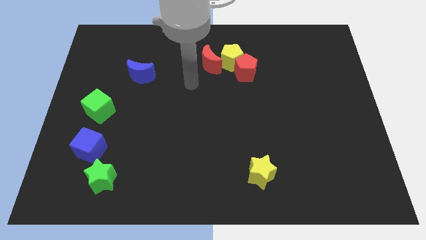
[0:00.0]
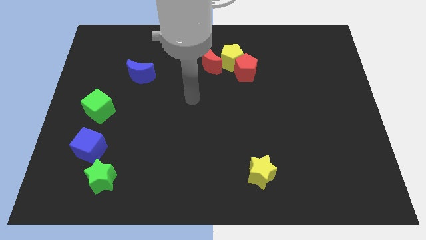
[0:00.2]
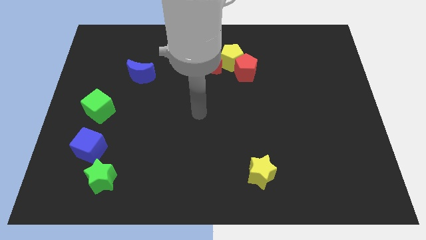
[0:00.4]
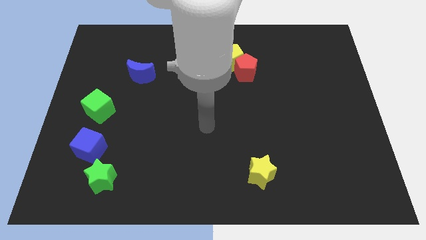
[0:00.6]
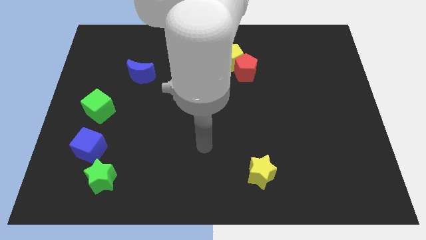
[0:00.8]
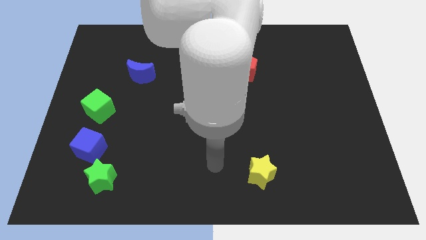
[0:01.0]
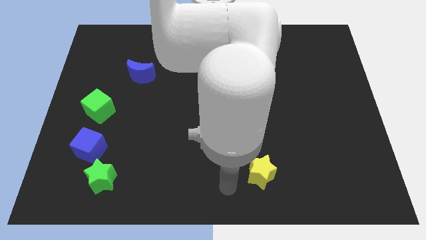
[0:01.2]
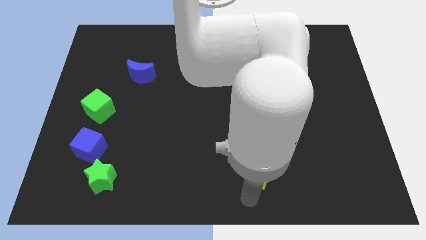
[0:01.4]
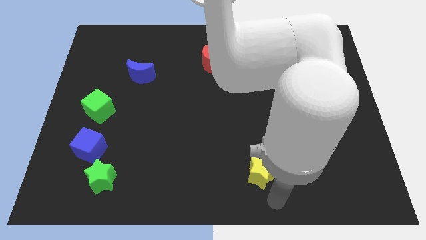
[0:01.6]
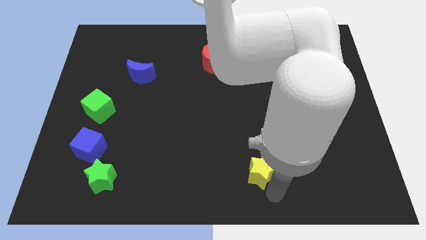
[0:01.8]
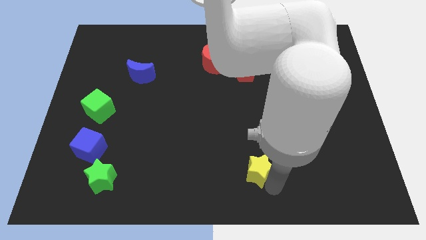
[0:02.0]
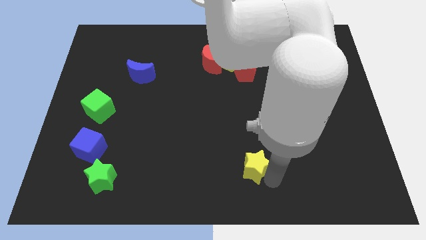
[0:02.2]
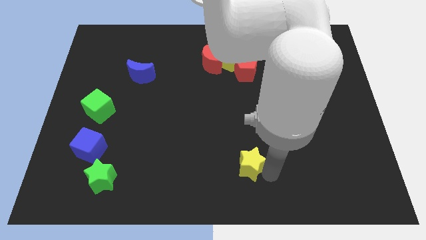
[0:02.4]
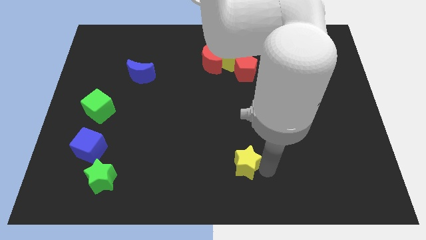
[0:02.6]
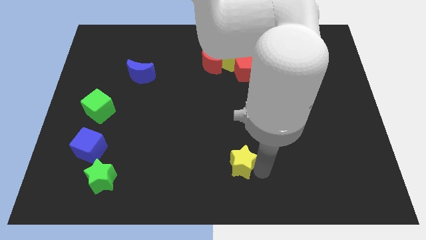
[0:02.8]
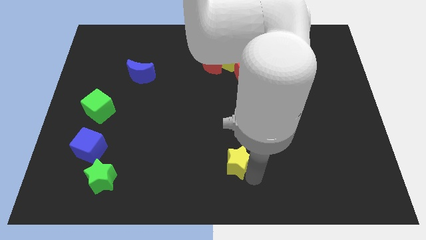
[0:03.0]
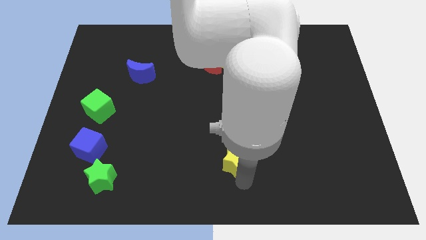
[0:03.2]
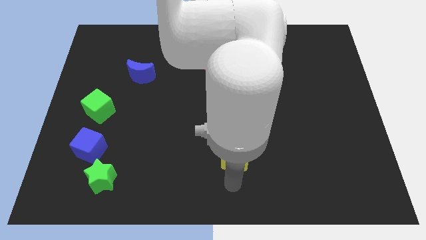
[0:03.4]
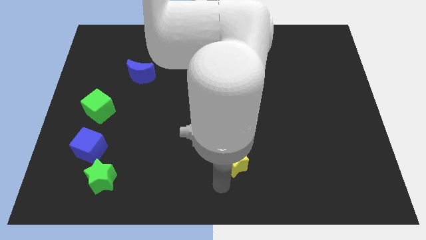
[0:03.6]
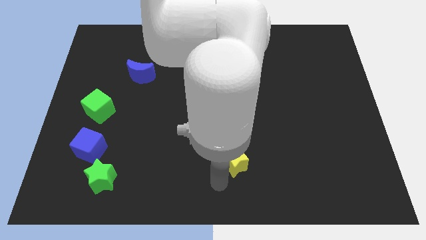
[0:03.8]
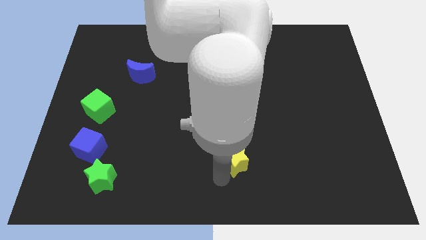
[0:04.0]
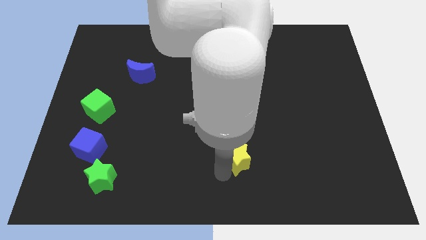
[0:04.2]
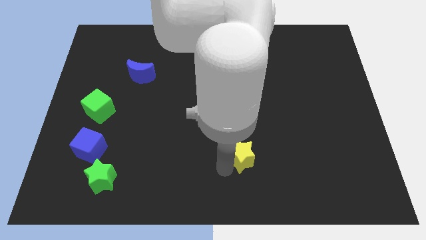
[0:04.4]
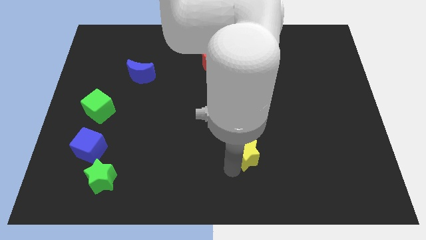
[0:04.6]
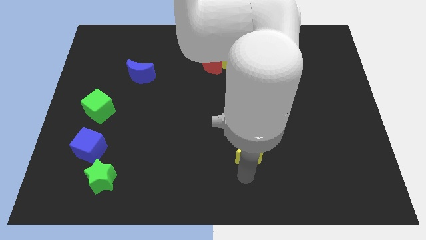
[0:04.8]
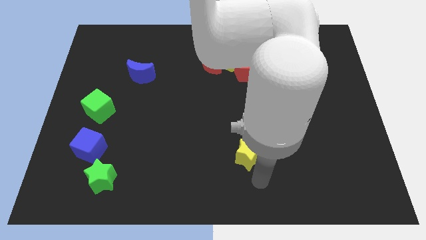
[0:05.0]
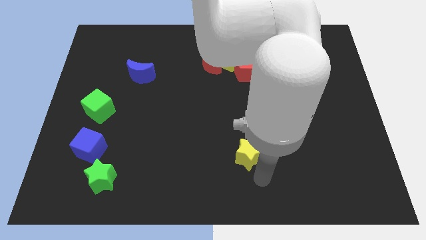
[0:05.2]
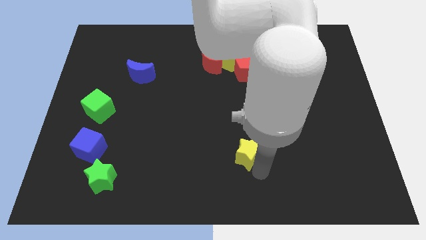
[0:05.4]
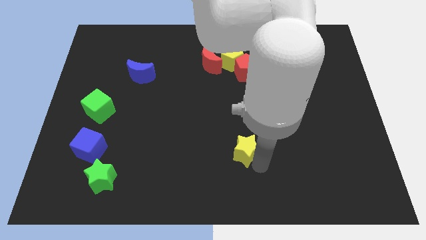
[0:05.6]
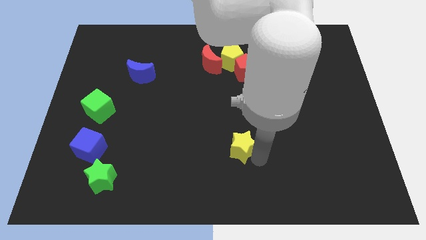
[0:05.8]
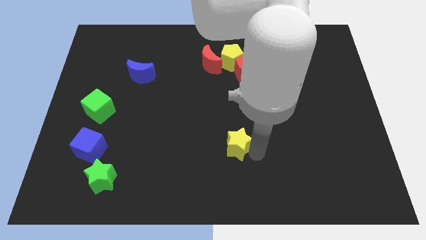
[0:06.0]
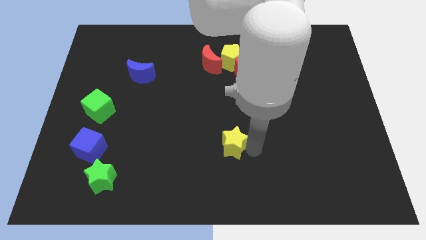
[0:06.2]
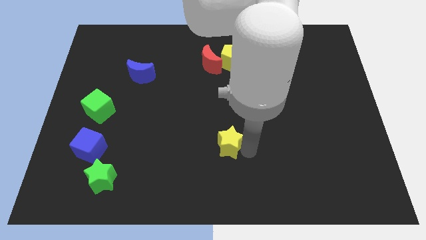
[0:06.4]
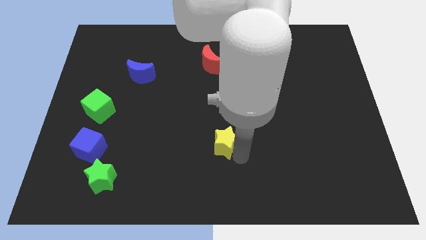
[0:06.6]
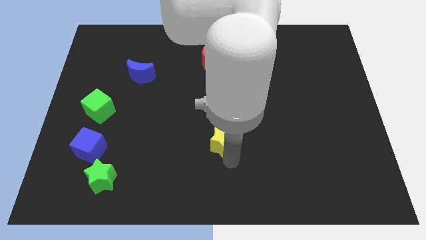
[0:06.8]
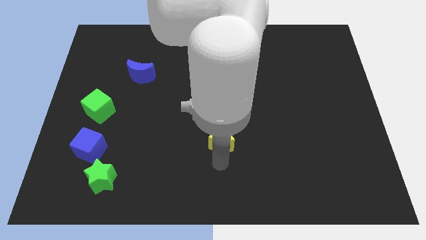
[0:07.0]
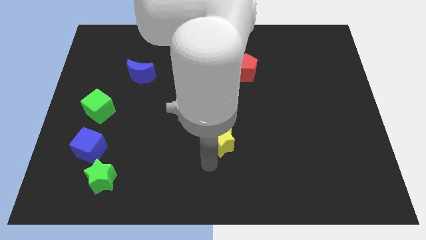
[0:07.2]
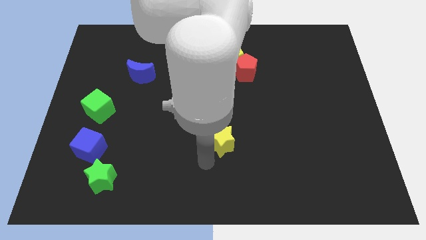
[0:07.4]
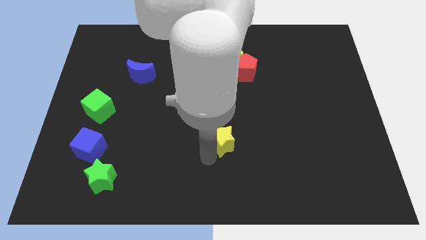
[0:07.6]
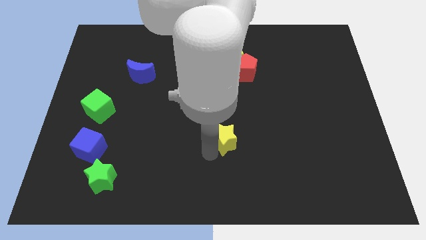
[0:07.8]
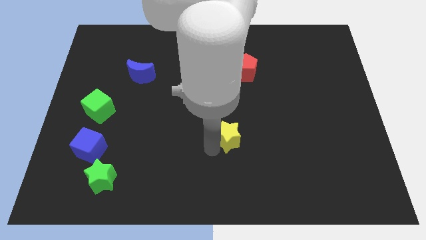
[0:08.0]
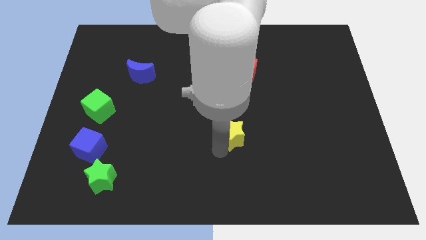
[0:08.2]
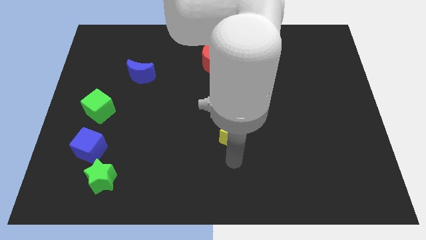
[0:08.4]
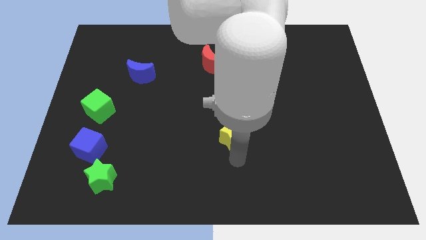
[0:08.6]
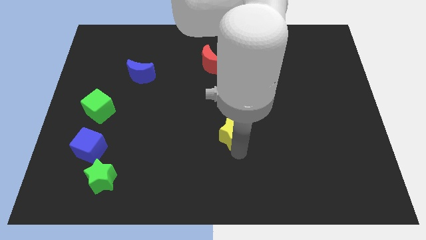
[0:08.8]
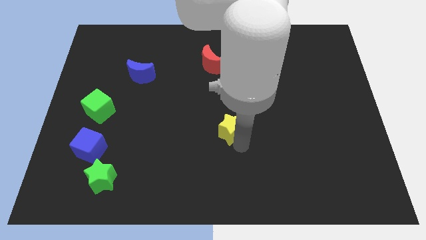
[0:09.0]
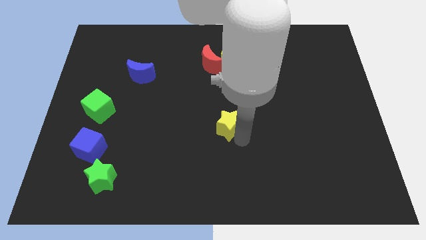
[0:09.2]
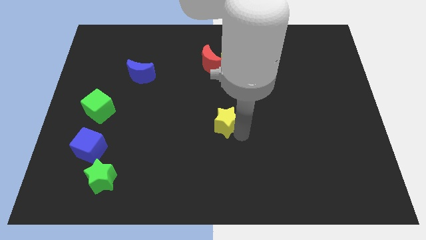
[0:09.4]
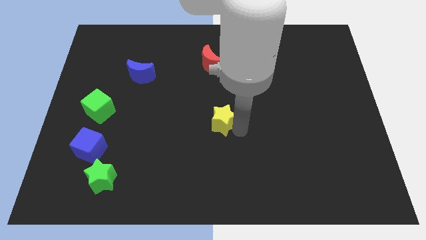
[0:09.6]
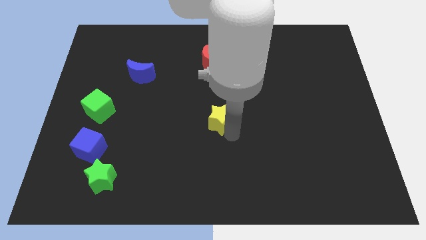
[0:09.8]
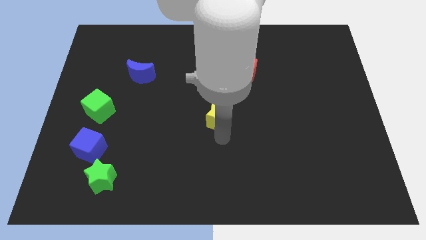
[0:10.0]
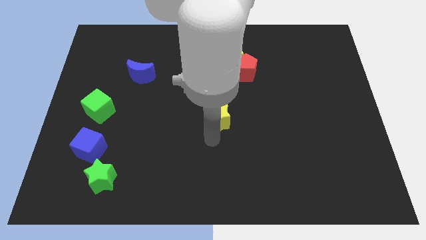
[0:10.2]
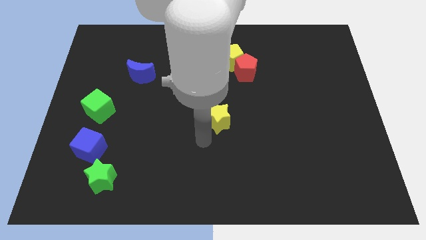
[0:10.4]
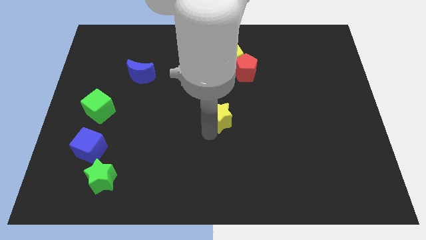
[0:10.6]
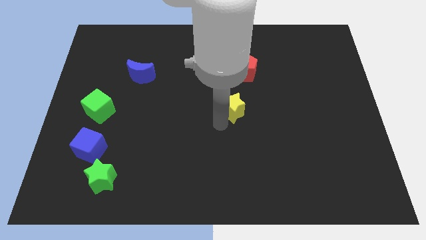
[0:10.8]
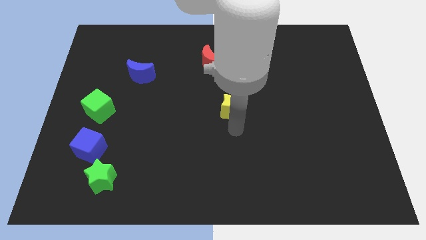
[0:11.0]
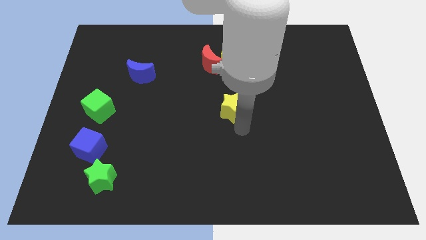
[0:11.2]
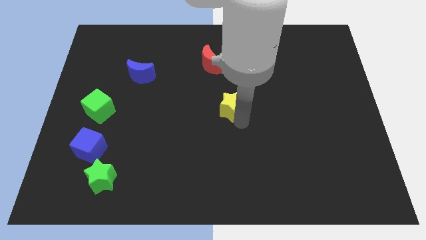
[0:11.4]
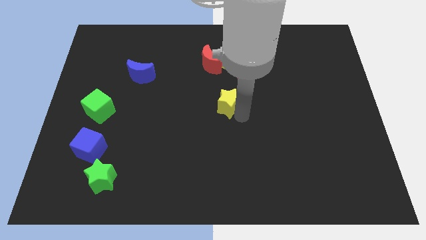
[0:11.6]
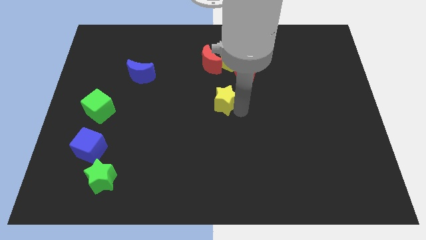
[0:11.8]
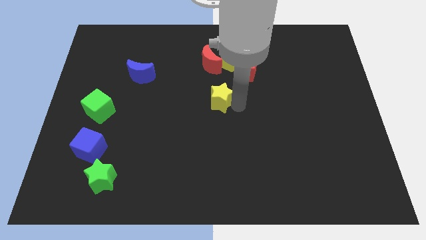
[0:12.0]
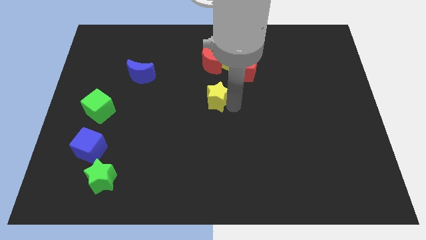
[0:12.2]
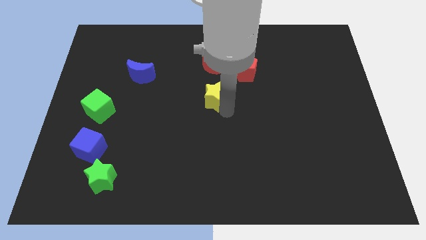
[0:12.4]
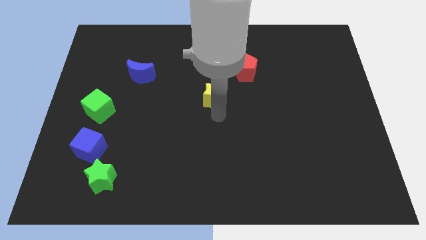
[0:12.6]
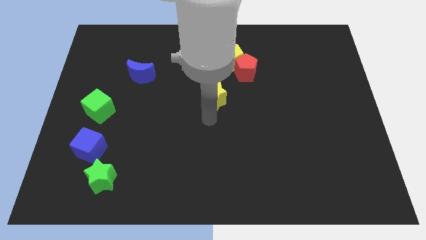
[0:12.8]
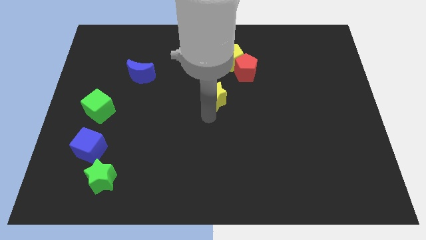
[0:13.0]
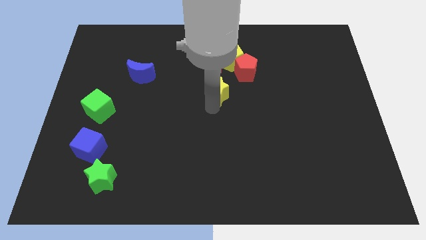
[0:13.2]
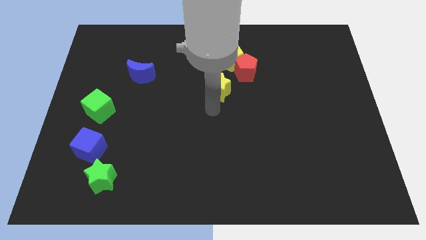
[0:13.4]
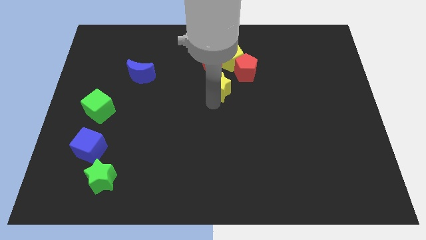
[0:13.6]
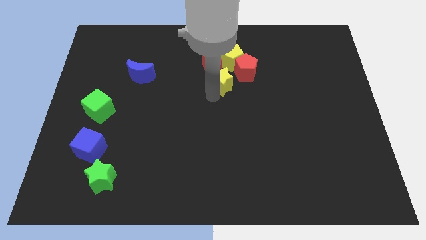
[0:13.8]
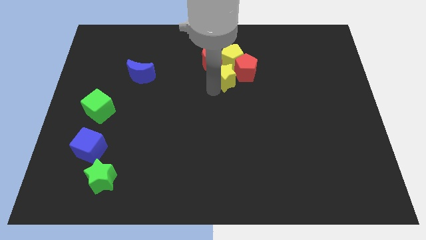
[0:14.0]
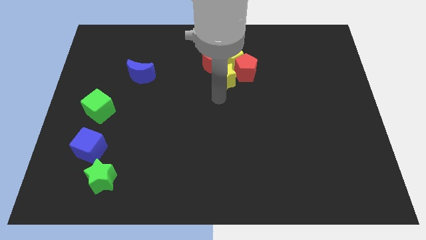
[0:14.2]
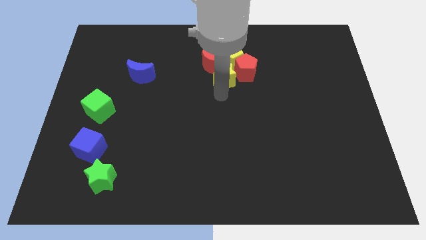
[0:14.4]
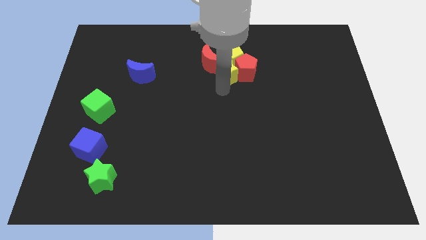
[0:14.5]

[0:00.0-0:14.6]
slide the yellow star next to the yellow pentagon

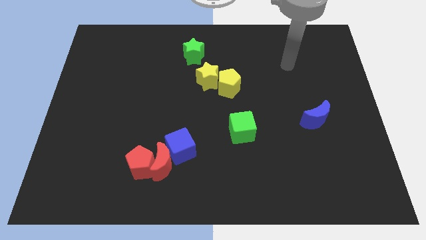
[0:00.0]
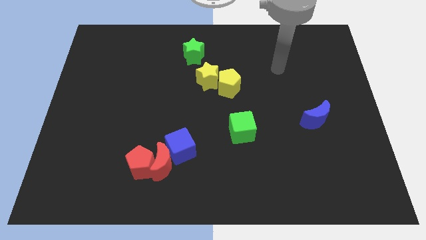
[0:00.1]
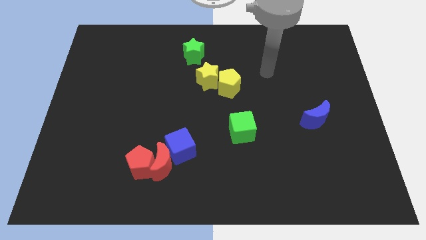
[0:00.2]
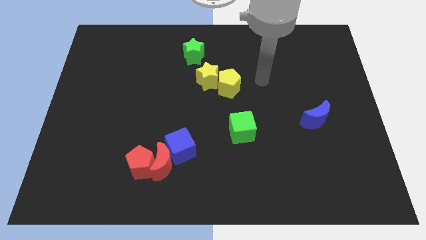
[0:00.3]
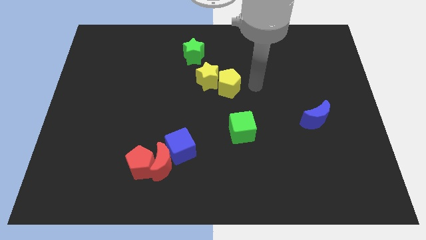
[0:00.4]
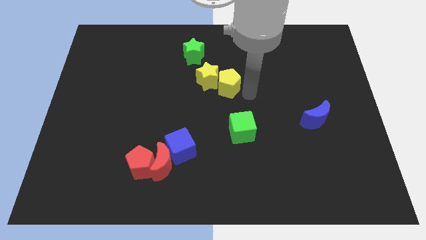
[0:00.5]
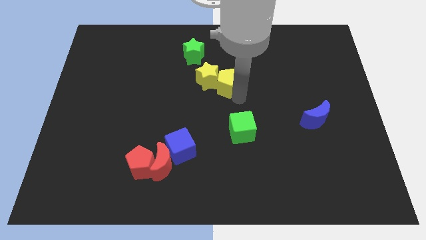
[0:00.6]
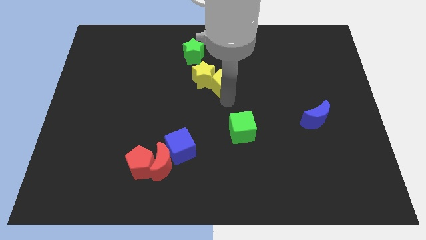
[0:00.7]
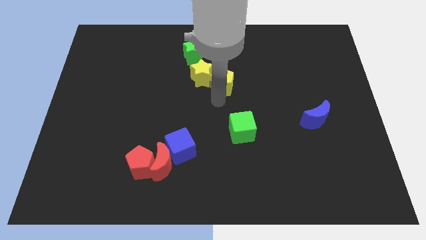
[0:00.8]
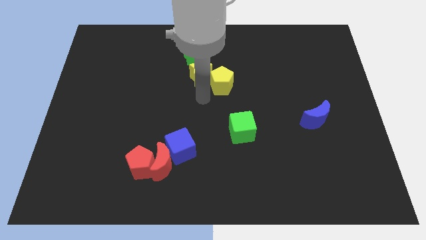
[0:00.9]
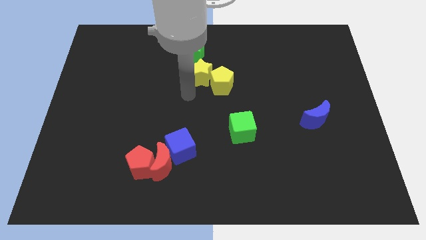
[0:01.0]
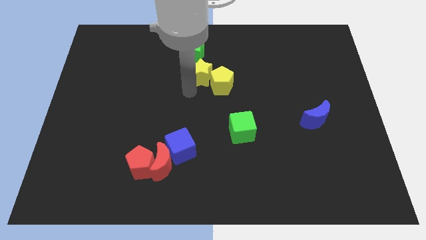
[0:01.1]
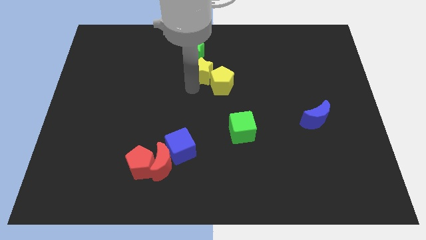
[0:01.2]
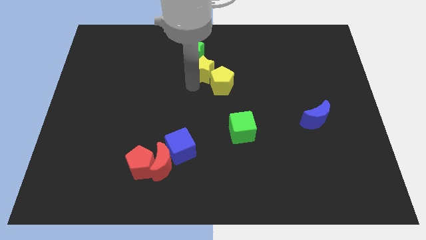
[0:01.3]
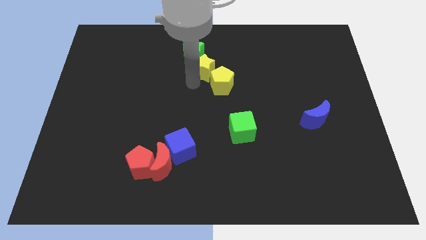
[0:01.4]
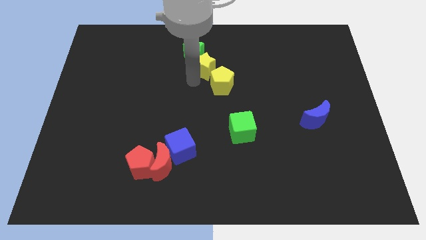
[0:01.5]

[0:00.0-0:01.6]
put the yellow star close to the green star
